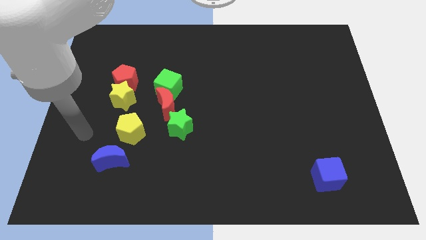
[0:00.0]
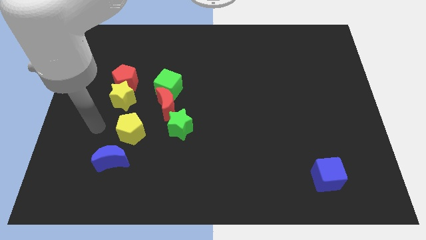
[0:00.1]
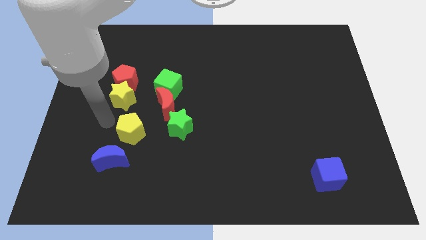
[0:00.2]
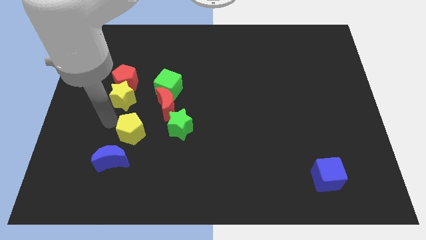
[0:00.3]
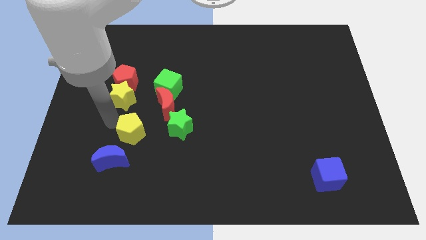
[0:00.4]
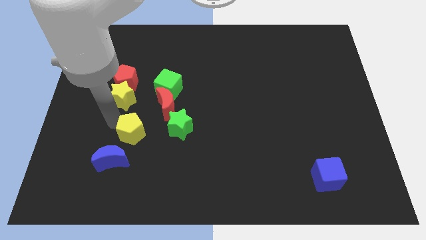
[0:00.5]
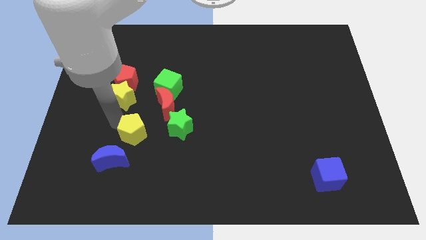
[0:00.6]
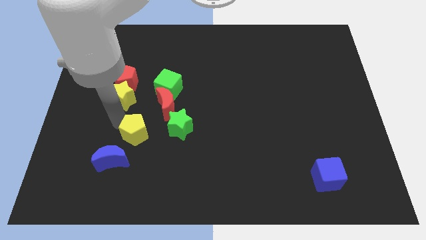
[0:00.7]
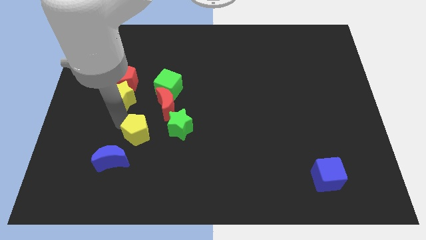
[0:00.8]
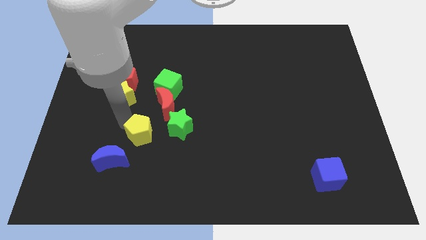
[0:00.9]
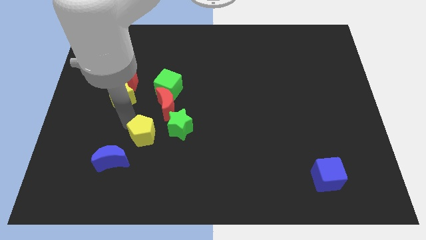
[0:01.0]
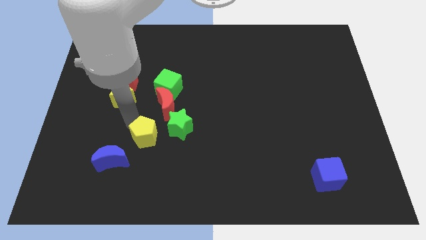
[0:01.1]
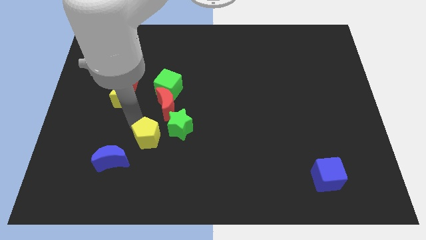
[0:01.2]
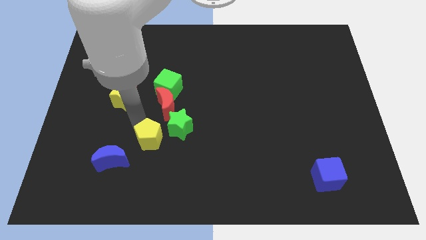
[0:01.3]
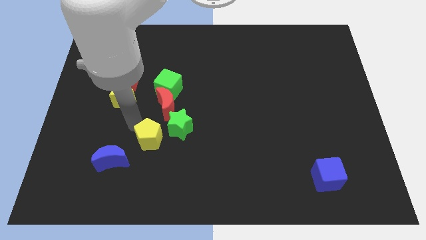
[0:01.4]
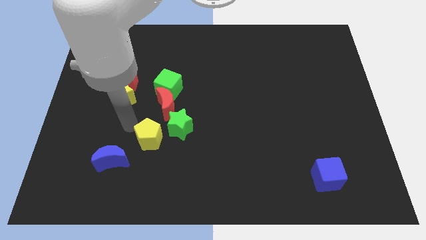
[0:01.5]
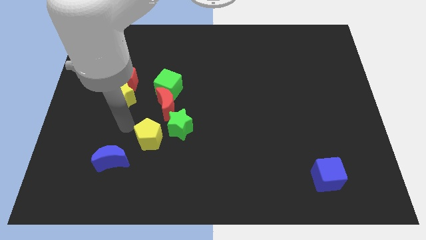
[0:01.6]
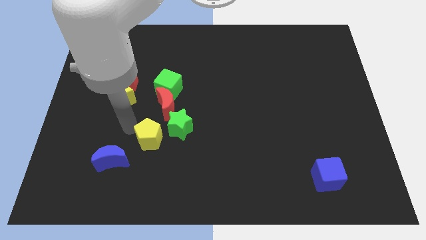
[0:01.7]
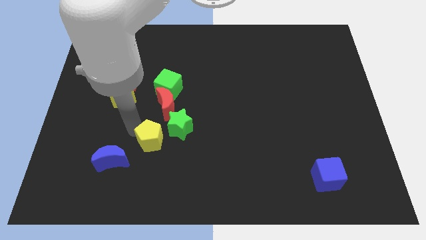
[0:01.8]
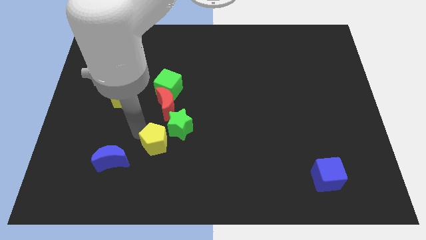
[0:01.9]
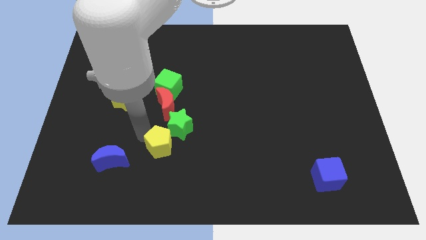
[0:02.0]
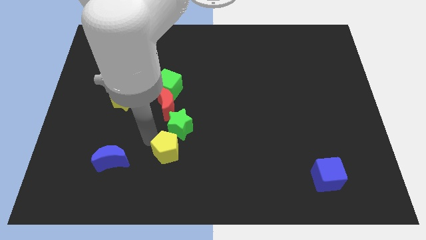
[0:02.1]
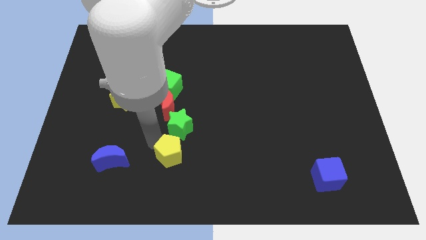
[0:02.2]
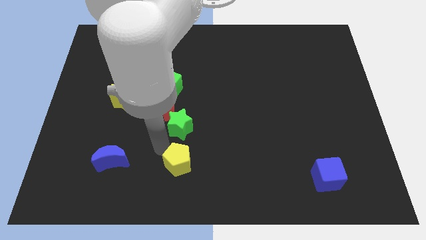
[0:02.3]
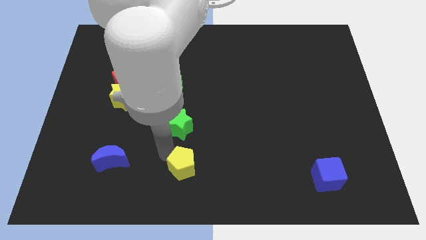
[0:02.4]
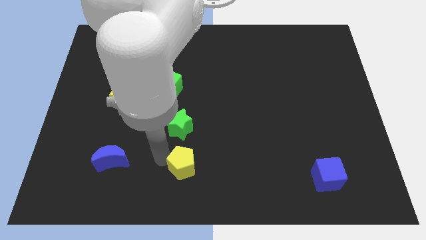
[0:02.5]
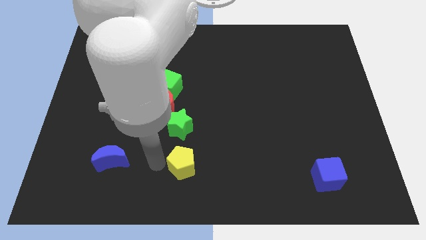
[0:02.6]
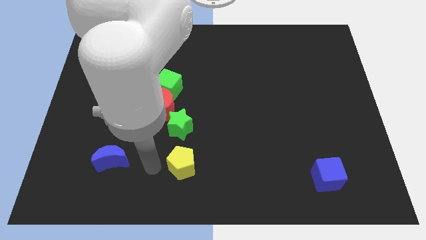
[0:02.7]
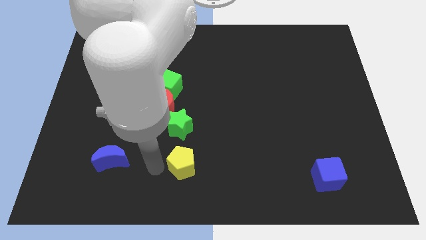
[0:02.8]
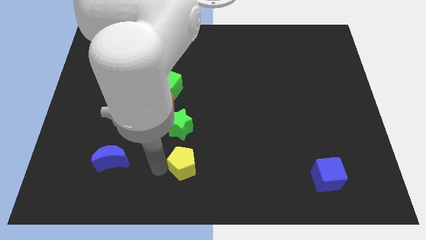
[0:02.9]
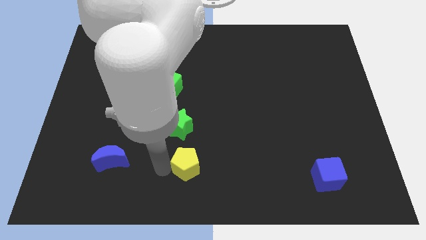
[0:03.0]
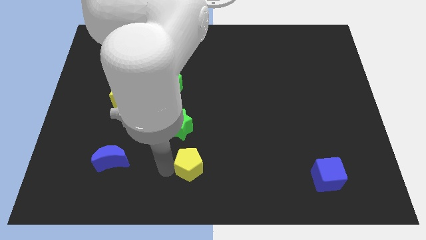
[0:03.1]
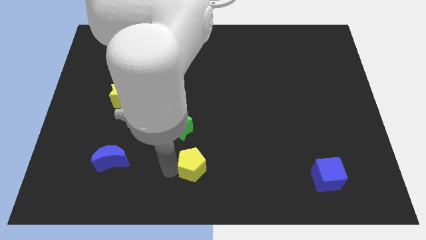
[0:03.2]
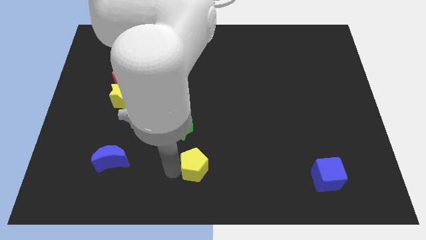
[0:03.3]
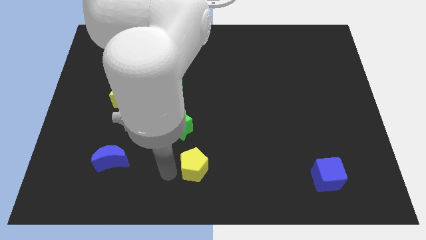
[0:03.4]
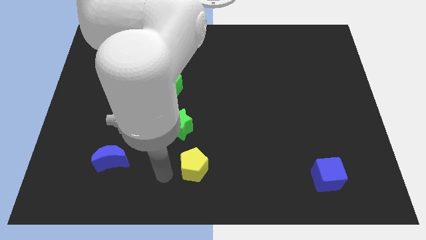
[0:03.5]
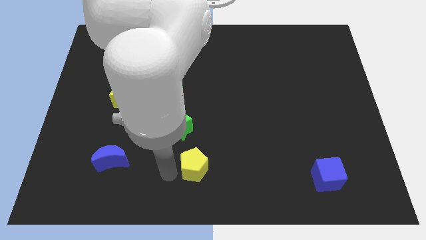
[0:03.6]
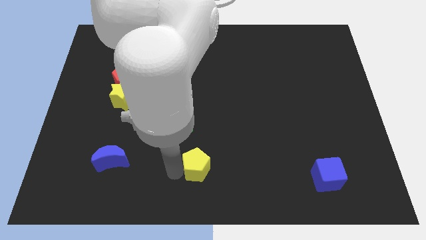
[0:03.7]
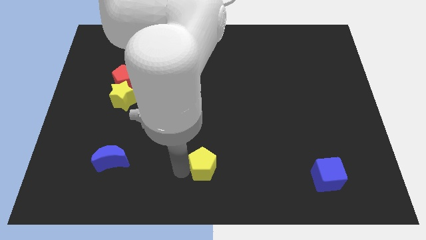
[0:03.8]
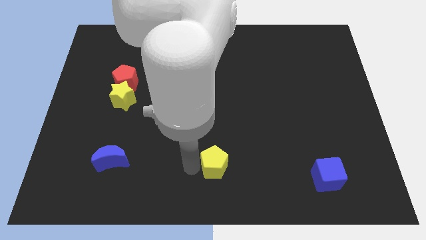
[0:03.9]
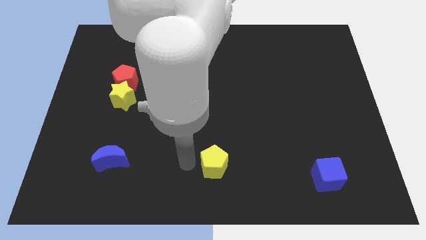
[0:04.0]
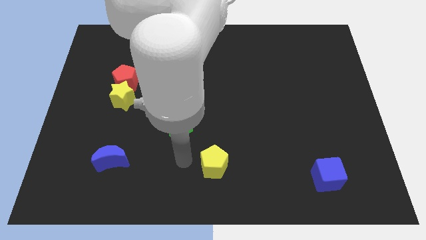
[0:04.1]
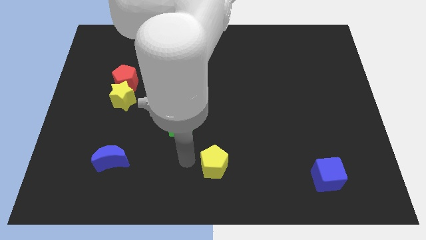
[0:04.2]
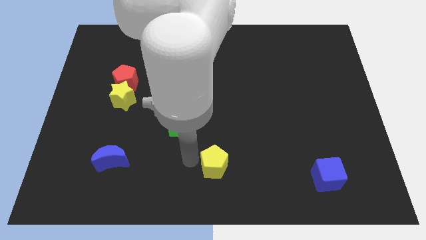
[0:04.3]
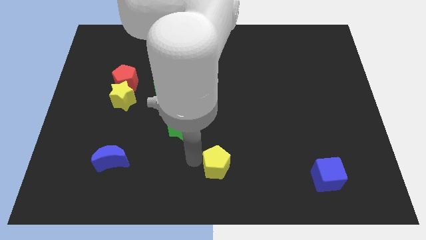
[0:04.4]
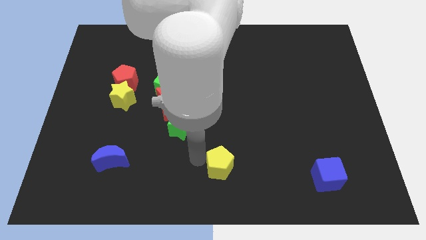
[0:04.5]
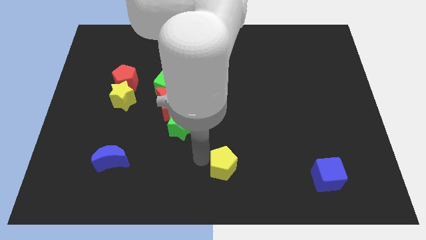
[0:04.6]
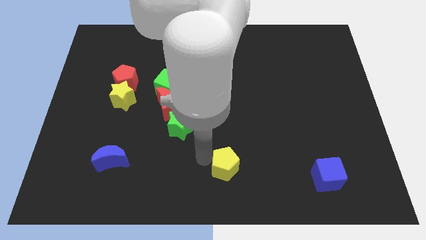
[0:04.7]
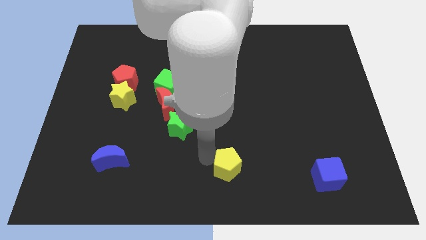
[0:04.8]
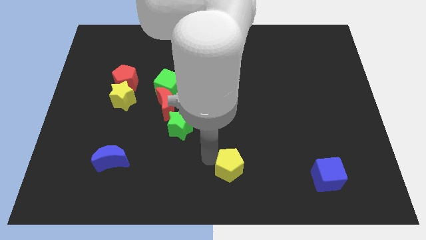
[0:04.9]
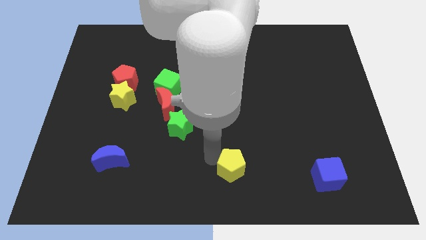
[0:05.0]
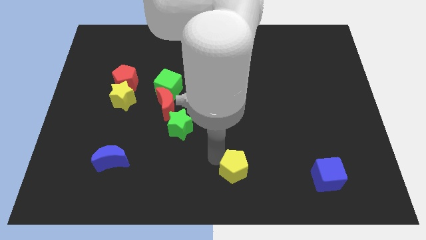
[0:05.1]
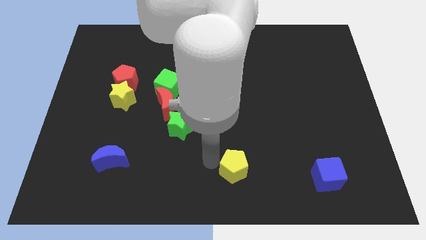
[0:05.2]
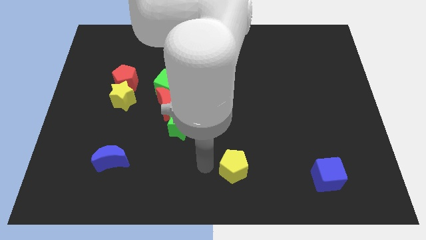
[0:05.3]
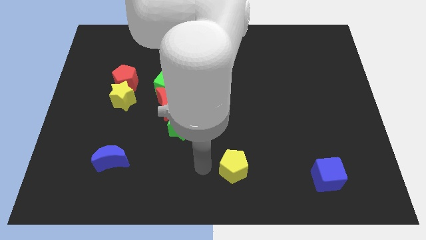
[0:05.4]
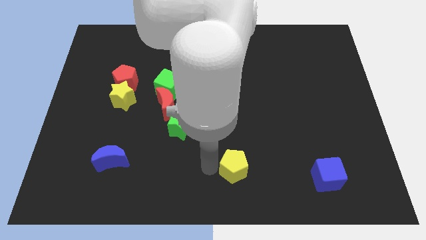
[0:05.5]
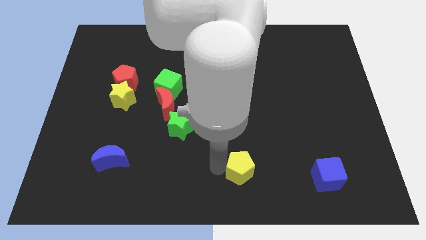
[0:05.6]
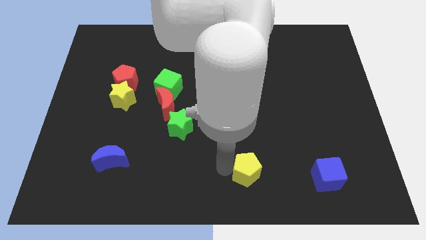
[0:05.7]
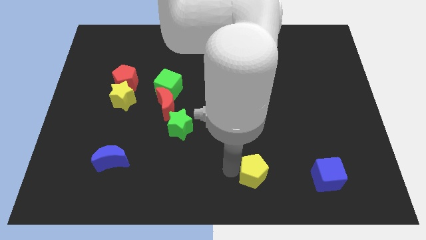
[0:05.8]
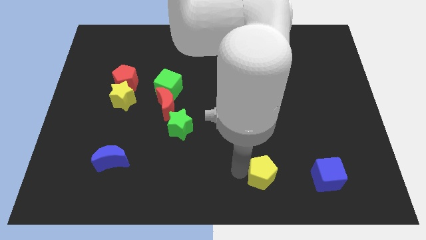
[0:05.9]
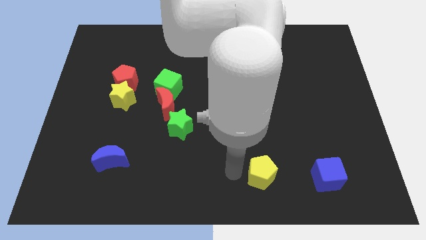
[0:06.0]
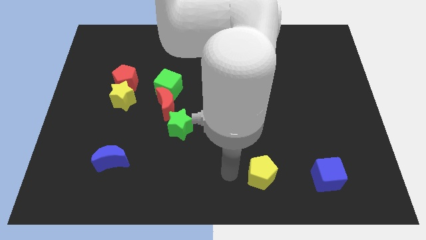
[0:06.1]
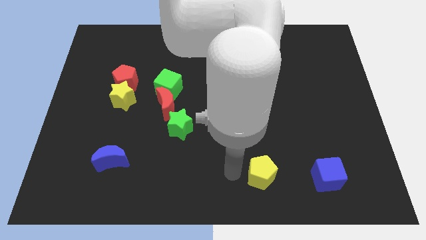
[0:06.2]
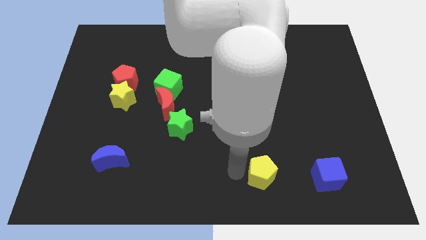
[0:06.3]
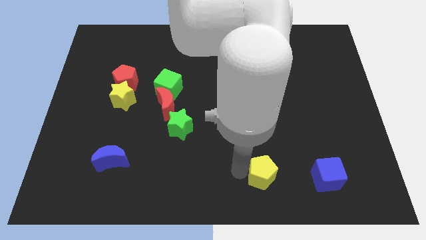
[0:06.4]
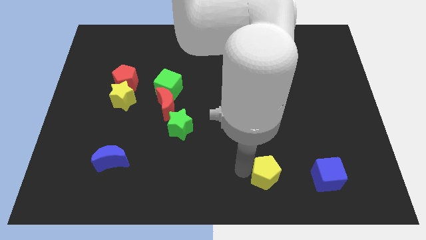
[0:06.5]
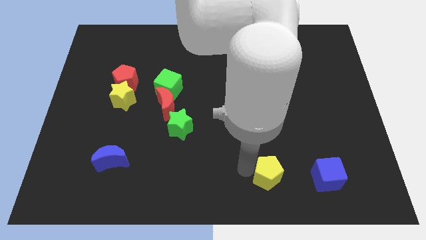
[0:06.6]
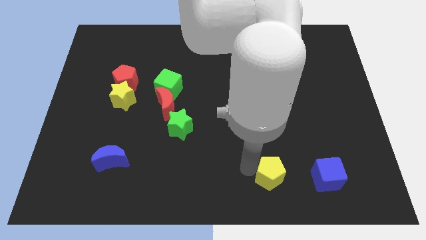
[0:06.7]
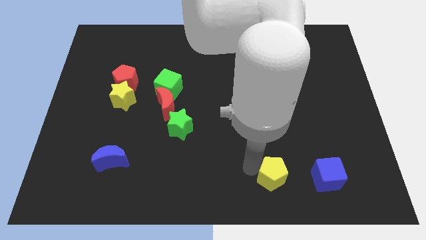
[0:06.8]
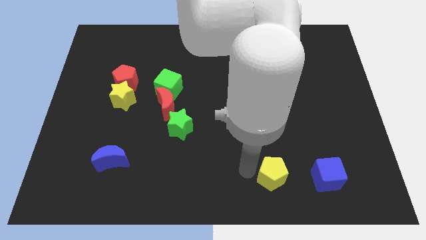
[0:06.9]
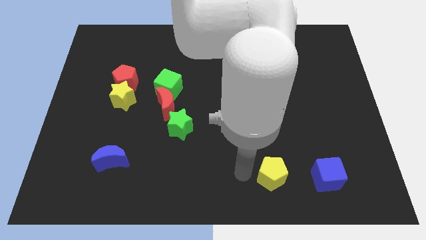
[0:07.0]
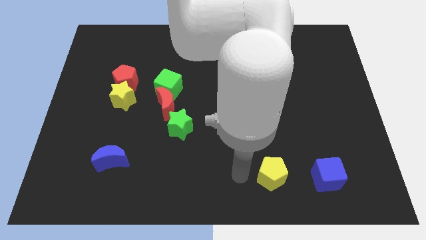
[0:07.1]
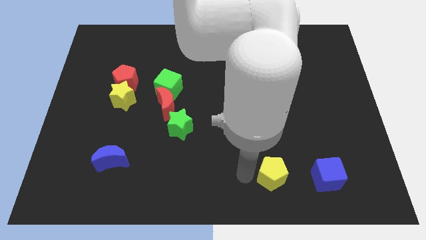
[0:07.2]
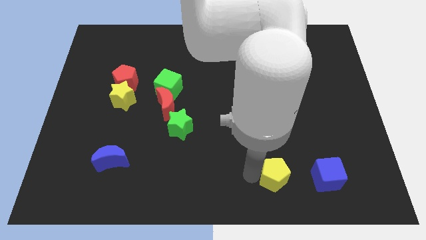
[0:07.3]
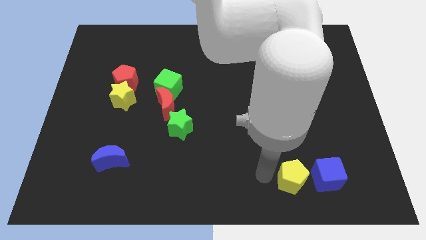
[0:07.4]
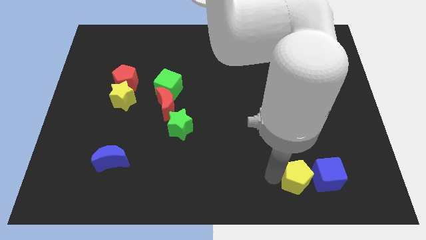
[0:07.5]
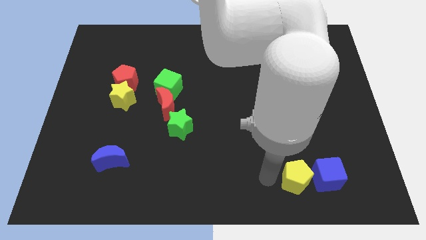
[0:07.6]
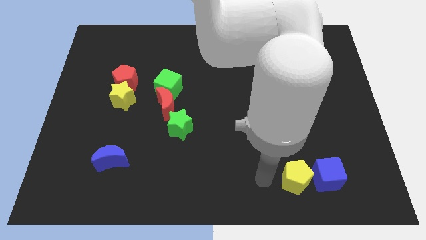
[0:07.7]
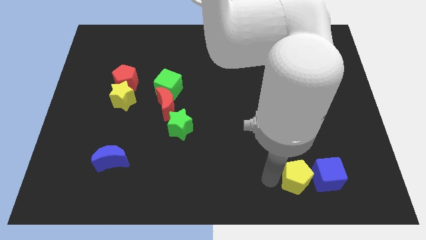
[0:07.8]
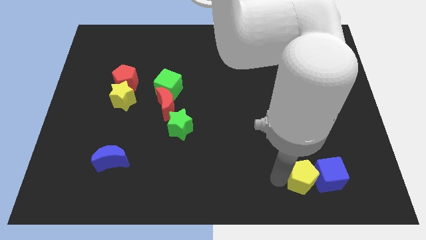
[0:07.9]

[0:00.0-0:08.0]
slide the yellow pentagon close to the blue cube
